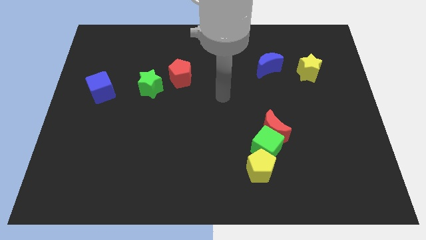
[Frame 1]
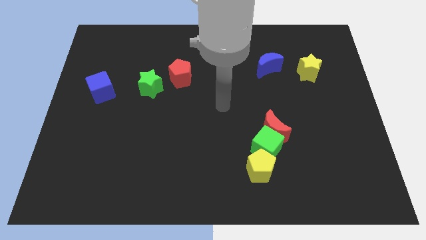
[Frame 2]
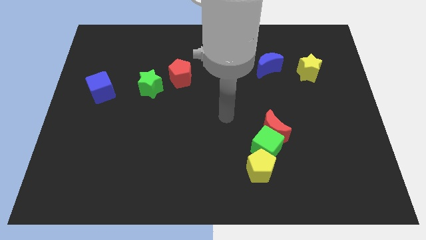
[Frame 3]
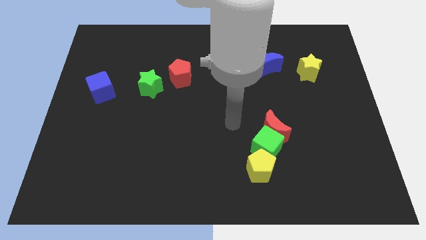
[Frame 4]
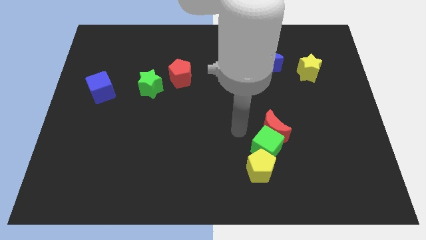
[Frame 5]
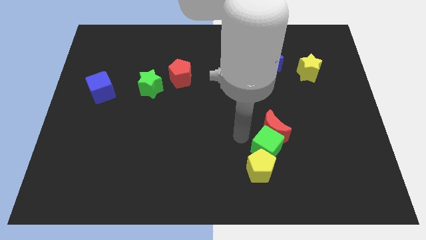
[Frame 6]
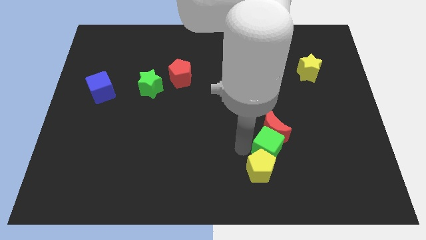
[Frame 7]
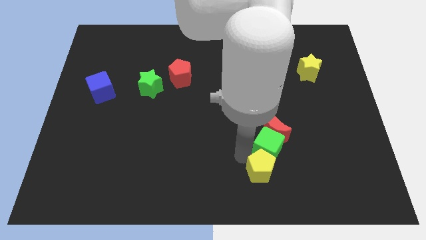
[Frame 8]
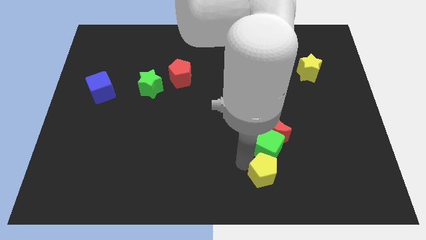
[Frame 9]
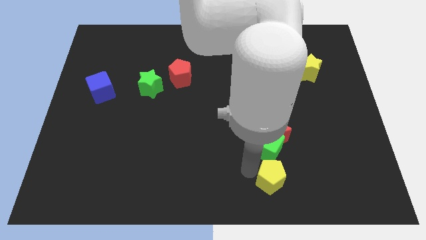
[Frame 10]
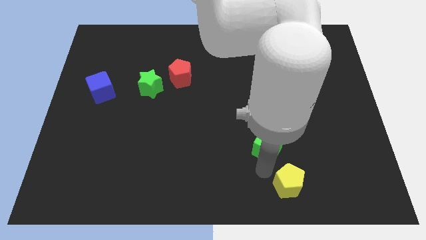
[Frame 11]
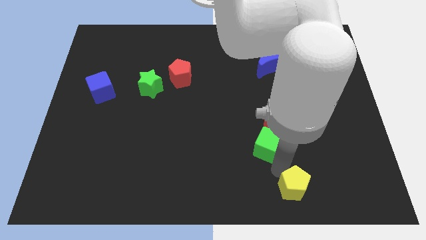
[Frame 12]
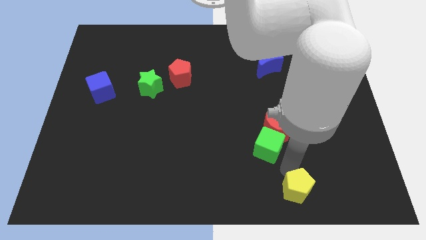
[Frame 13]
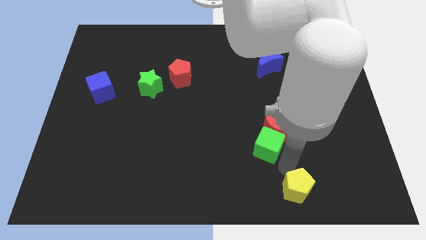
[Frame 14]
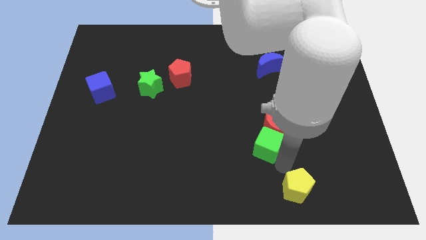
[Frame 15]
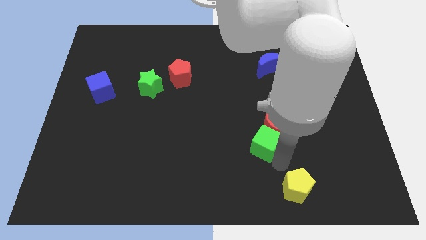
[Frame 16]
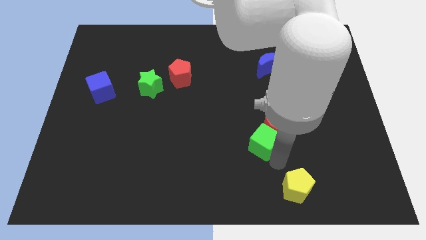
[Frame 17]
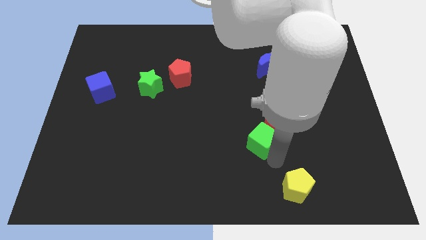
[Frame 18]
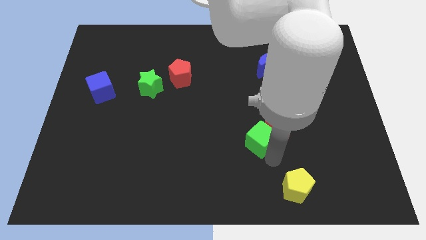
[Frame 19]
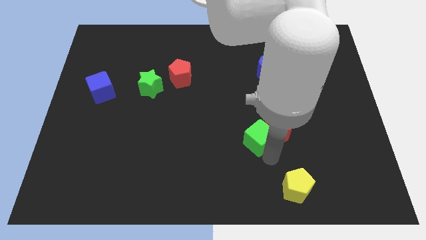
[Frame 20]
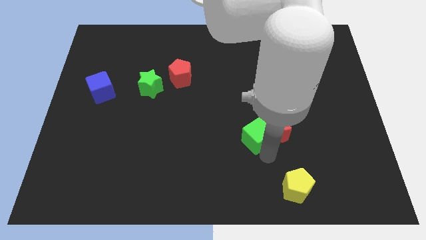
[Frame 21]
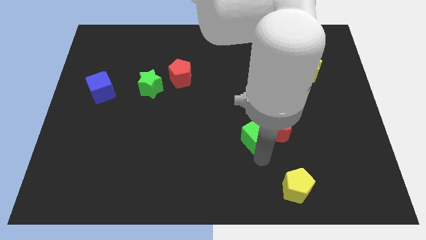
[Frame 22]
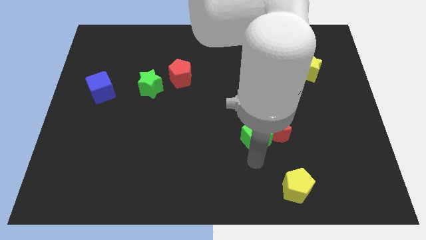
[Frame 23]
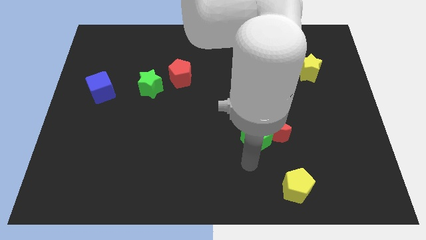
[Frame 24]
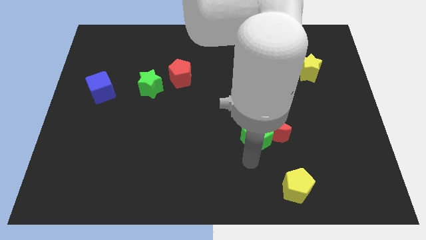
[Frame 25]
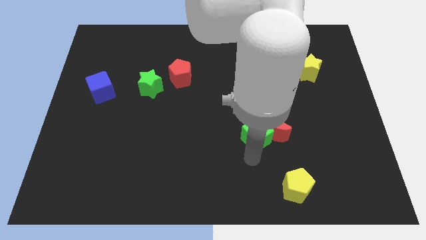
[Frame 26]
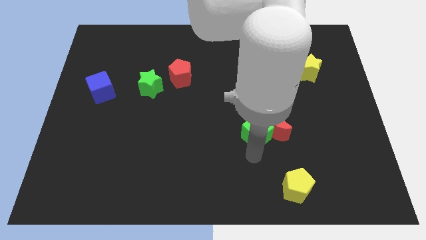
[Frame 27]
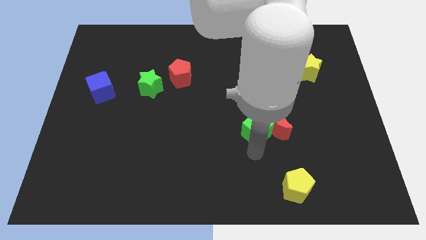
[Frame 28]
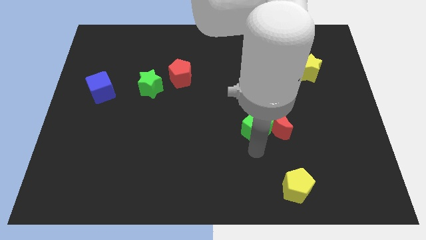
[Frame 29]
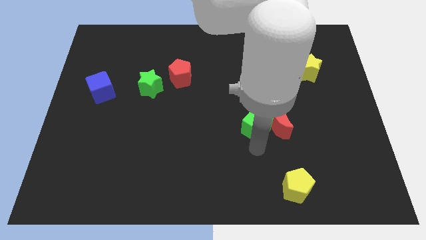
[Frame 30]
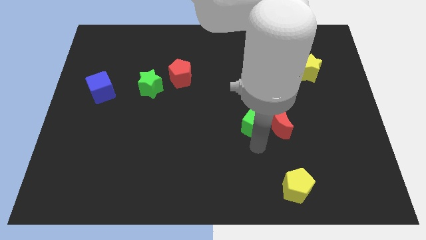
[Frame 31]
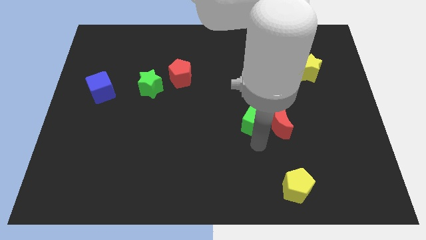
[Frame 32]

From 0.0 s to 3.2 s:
move the green cube away from the red moon and yellow pentagon

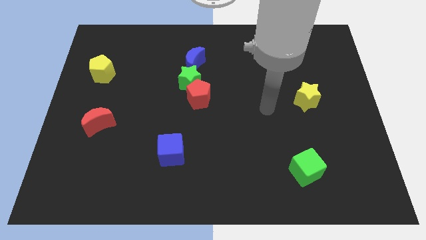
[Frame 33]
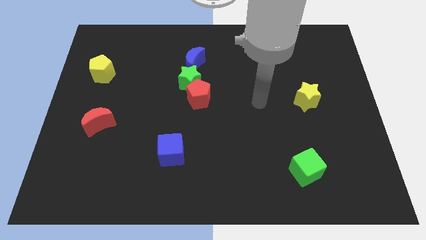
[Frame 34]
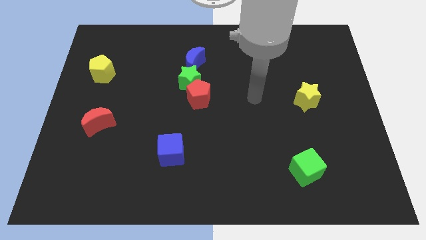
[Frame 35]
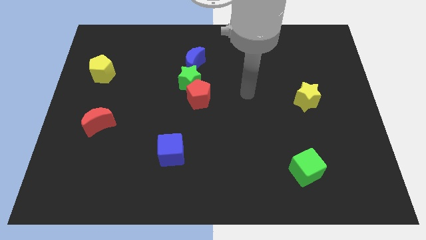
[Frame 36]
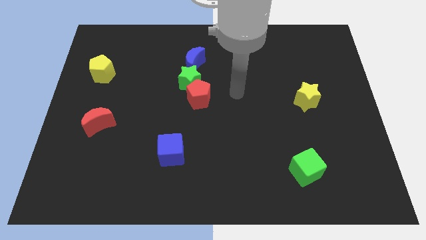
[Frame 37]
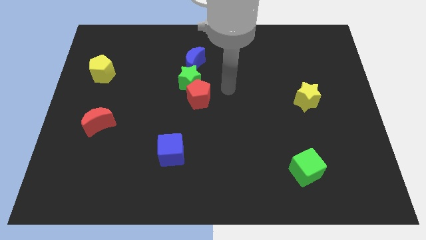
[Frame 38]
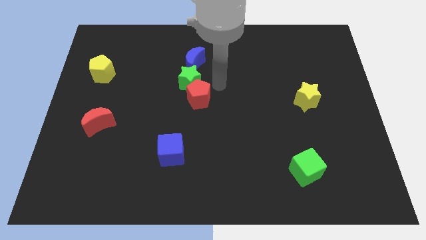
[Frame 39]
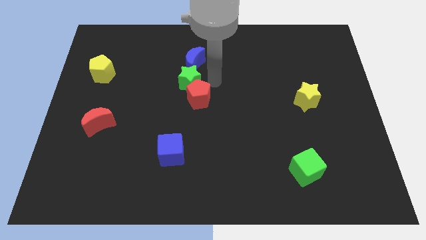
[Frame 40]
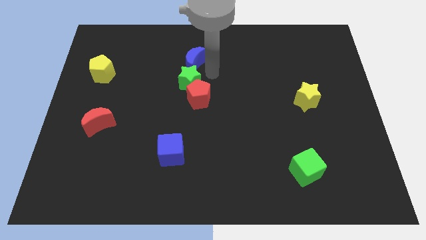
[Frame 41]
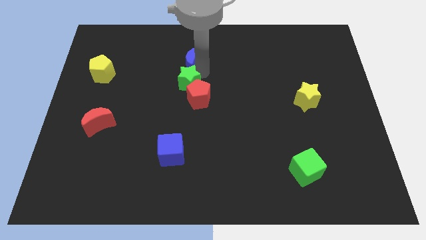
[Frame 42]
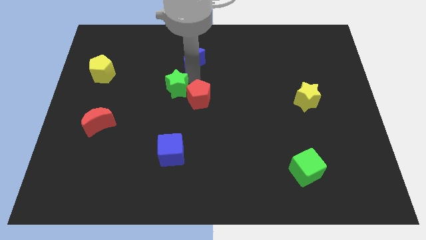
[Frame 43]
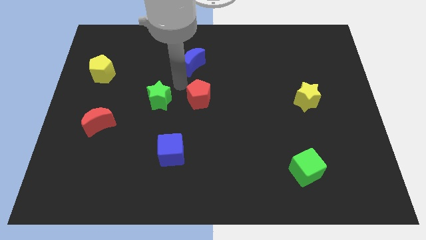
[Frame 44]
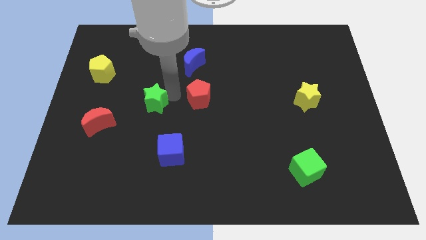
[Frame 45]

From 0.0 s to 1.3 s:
separate the red pentagon from the green star

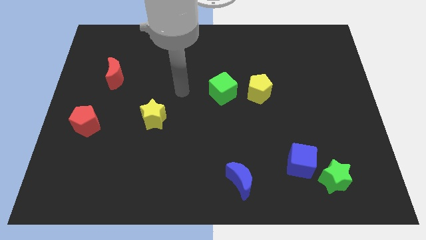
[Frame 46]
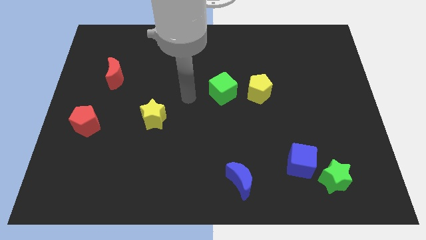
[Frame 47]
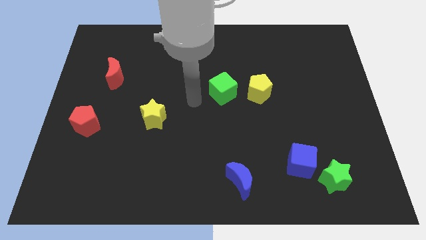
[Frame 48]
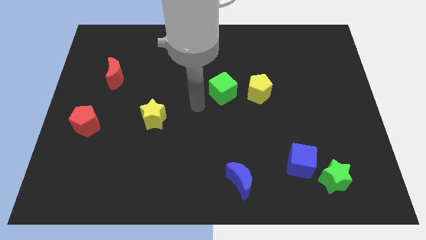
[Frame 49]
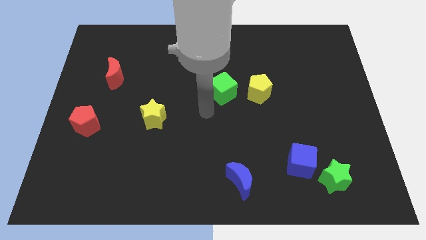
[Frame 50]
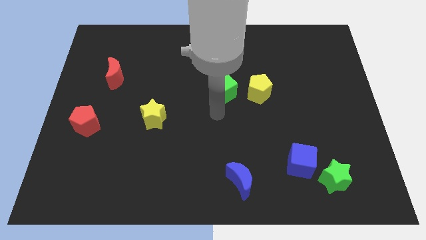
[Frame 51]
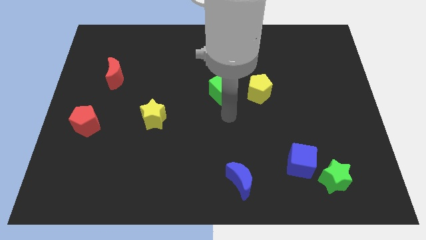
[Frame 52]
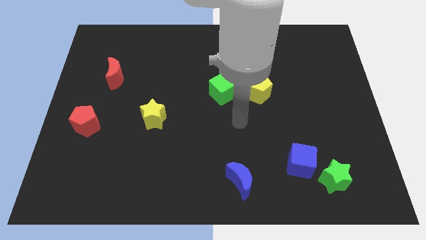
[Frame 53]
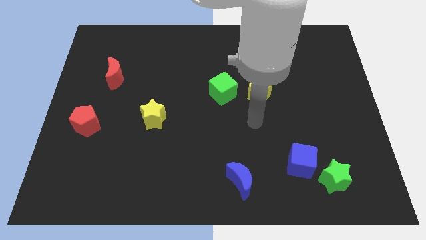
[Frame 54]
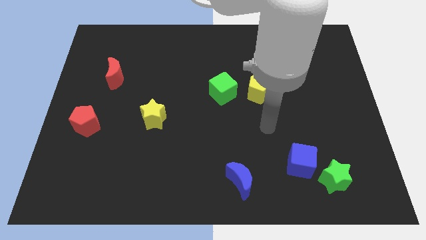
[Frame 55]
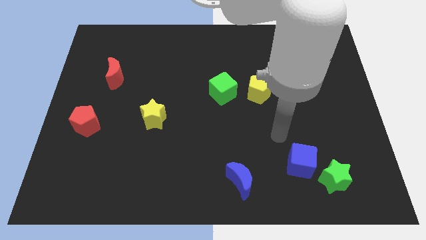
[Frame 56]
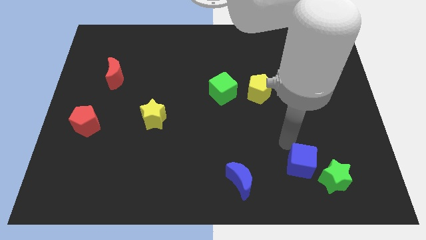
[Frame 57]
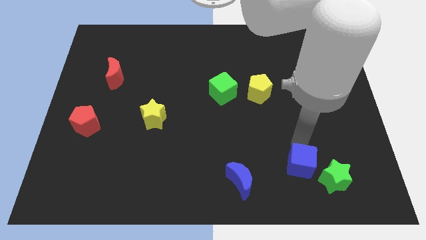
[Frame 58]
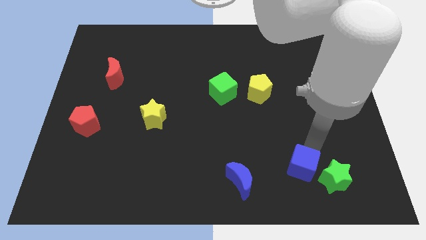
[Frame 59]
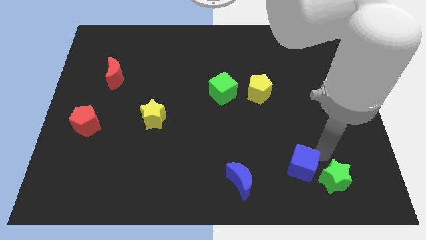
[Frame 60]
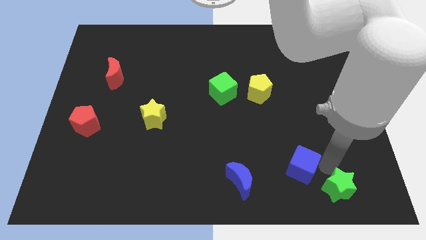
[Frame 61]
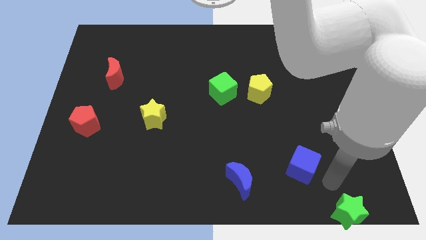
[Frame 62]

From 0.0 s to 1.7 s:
pull the blue cube apart from the green star

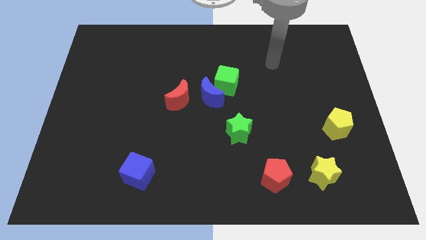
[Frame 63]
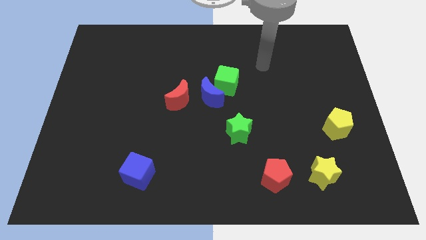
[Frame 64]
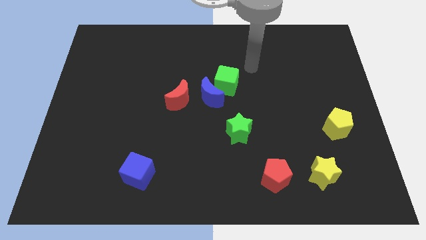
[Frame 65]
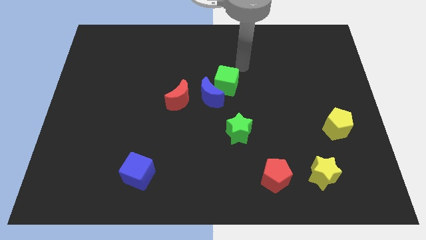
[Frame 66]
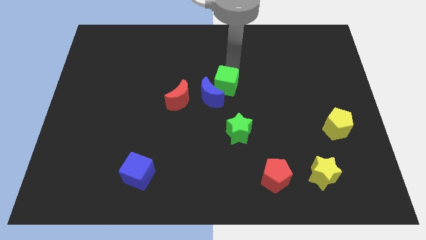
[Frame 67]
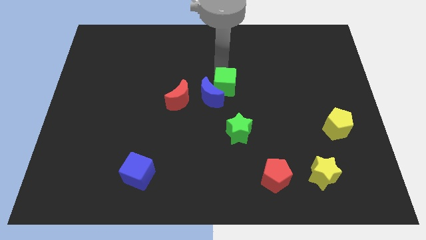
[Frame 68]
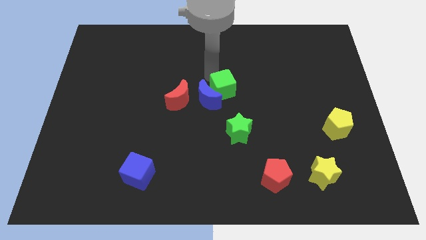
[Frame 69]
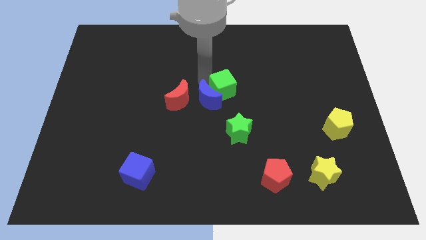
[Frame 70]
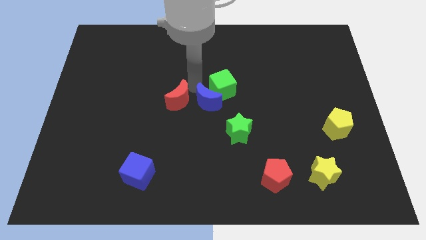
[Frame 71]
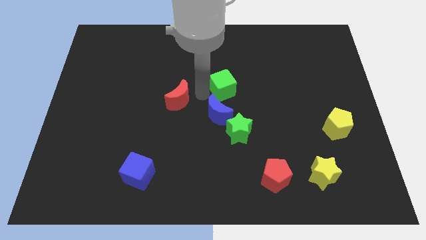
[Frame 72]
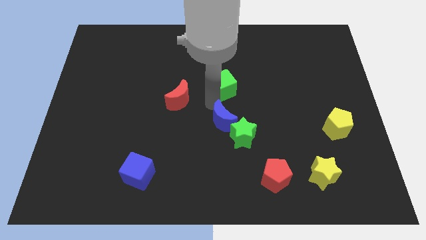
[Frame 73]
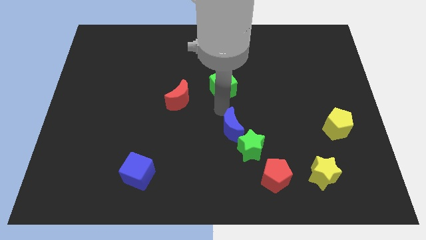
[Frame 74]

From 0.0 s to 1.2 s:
separate the green cube from the blue moon

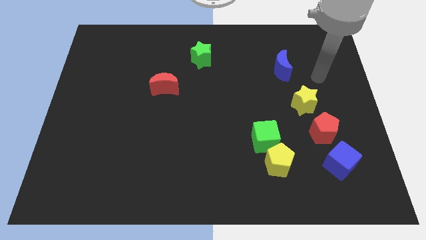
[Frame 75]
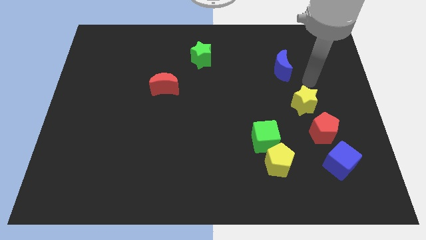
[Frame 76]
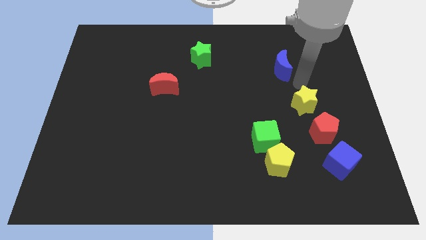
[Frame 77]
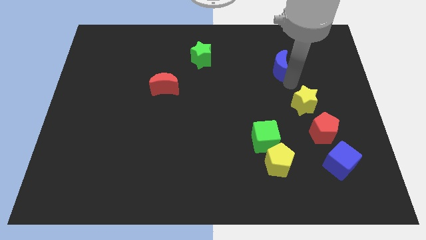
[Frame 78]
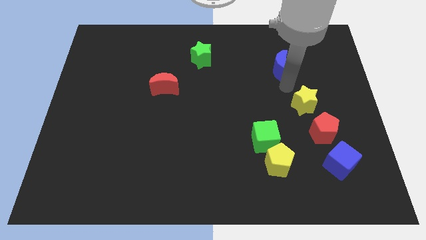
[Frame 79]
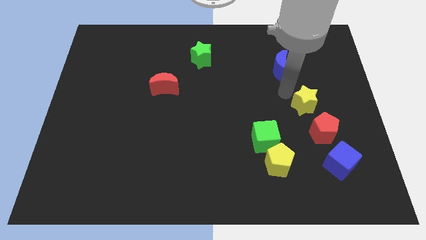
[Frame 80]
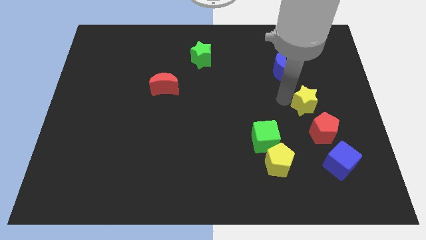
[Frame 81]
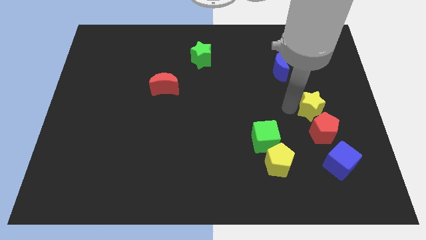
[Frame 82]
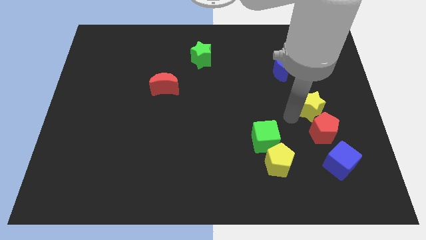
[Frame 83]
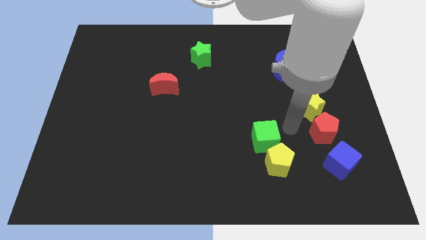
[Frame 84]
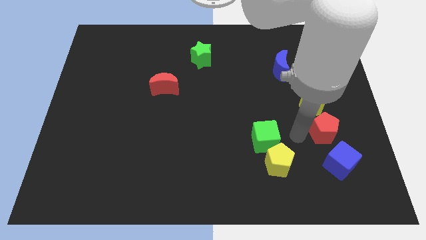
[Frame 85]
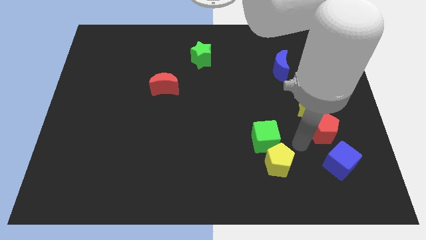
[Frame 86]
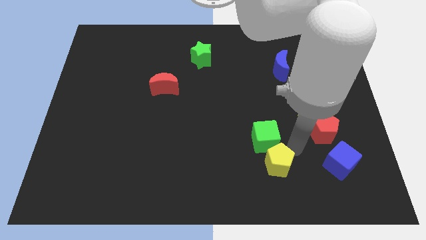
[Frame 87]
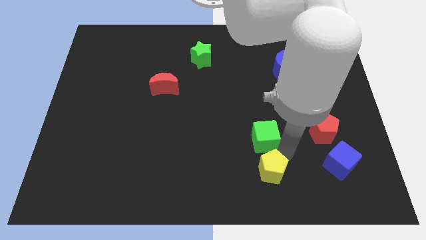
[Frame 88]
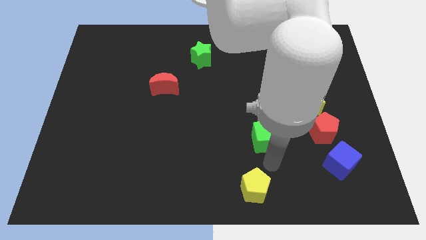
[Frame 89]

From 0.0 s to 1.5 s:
pull the green cube apart from the yellow pentagon

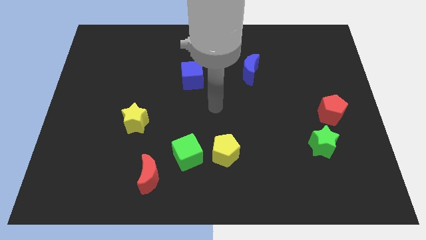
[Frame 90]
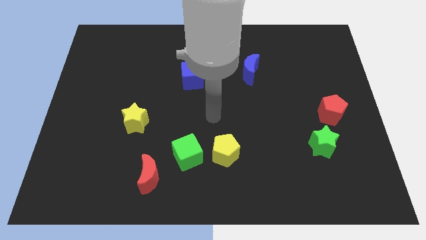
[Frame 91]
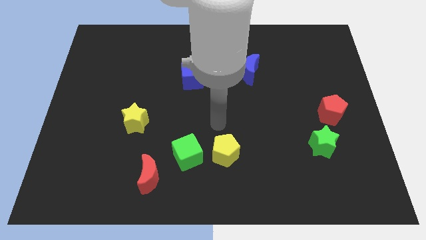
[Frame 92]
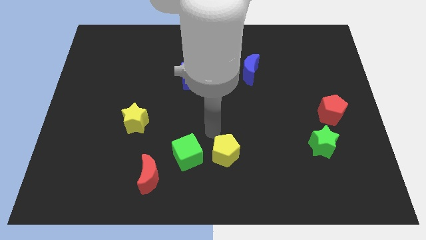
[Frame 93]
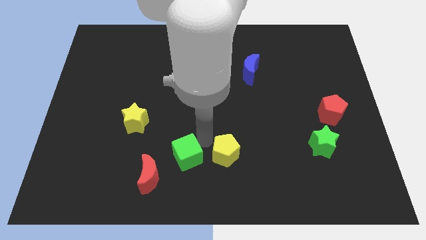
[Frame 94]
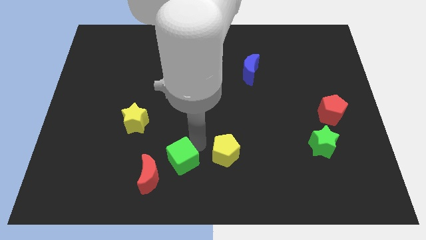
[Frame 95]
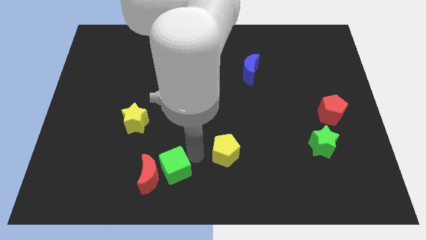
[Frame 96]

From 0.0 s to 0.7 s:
move the yellow pentagon away from the green cube
